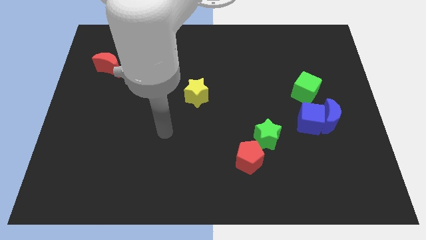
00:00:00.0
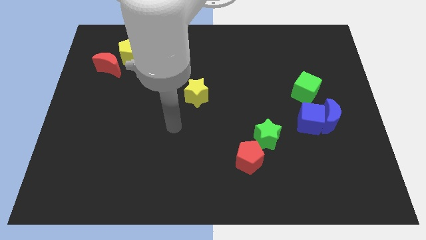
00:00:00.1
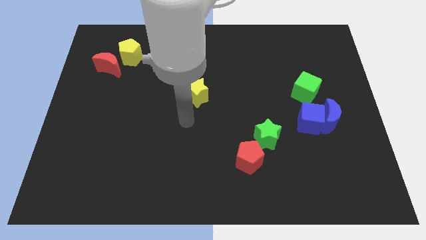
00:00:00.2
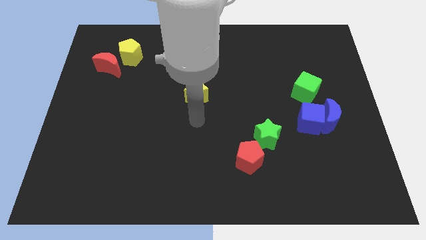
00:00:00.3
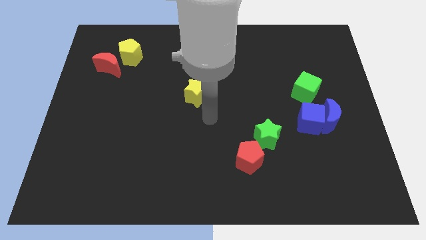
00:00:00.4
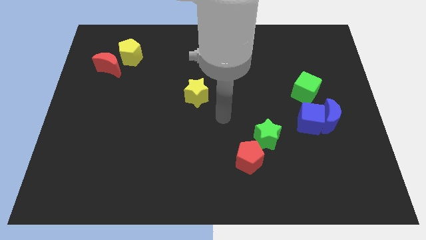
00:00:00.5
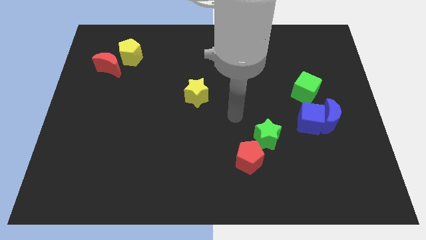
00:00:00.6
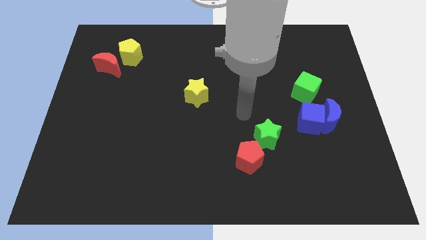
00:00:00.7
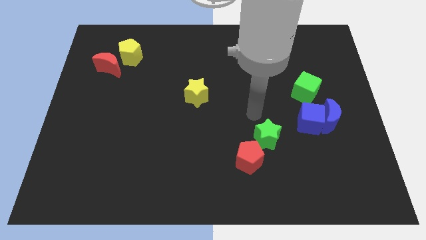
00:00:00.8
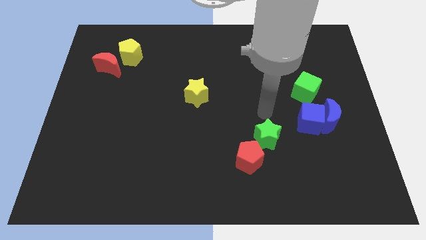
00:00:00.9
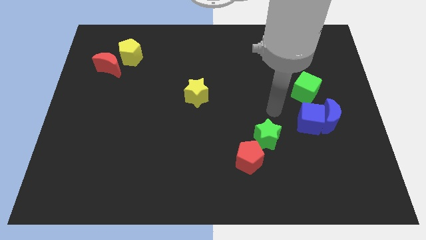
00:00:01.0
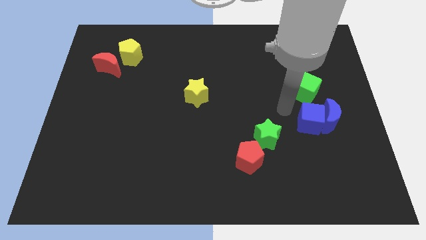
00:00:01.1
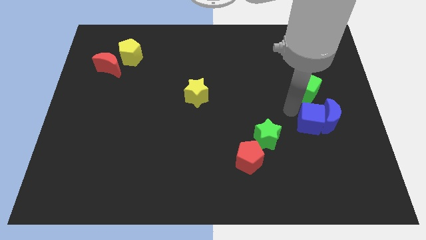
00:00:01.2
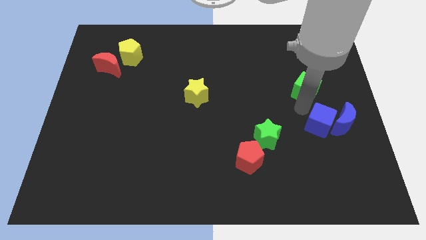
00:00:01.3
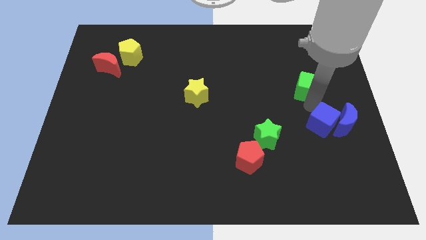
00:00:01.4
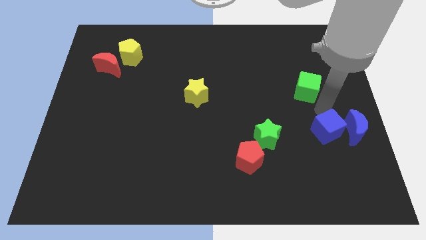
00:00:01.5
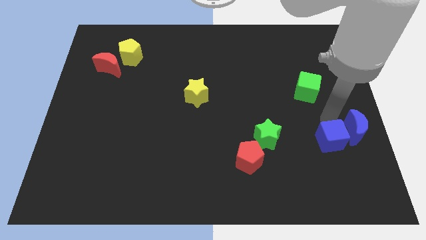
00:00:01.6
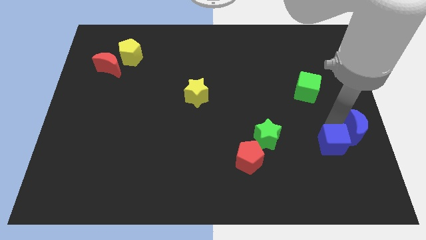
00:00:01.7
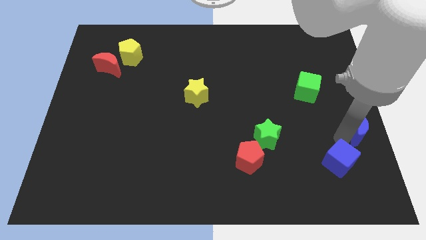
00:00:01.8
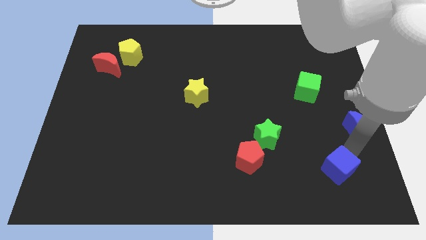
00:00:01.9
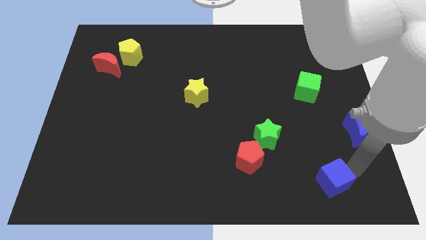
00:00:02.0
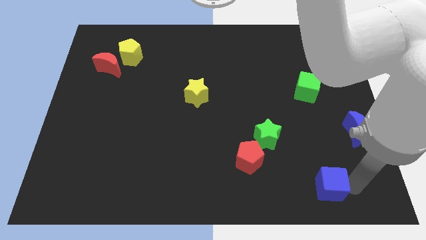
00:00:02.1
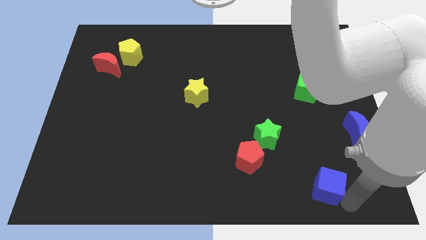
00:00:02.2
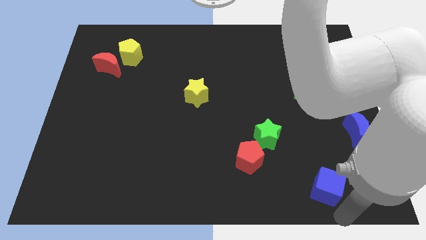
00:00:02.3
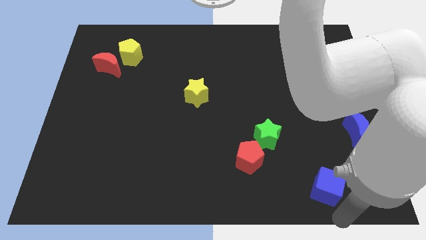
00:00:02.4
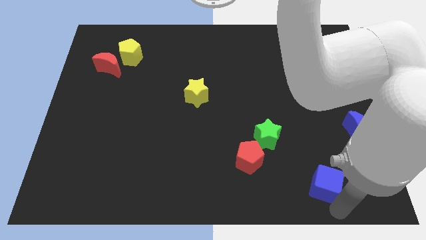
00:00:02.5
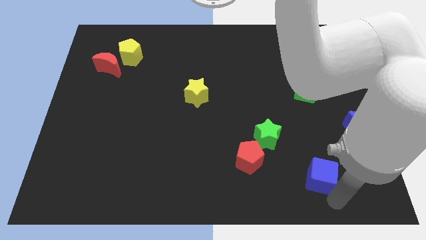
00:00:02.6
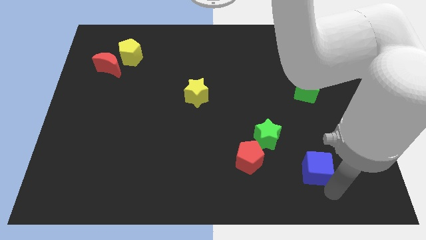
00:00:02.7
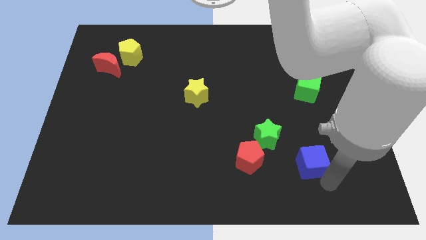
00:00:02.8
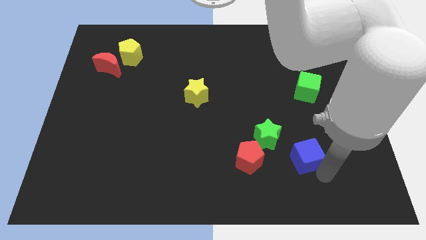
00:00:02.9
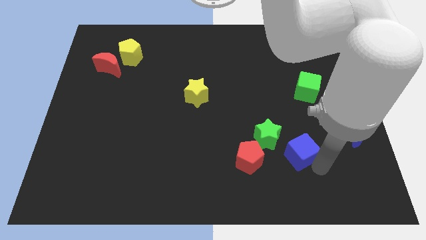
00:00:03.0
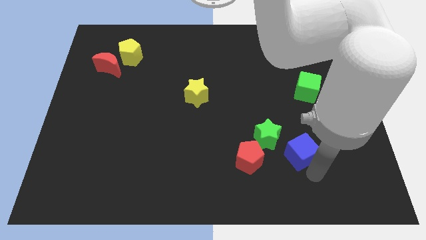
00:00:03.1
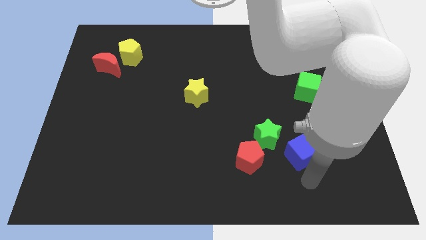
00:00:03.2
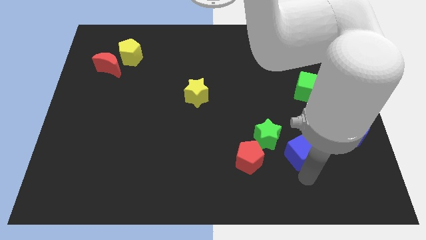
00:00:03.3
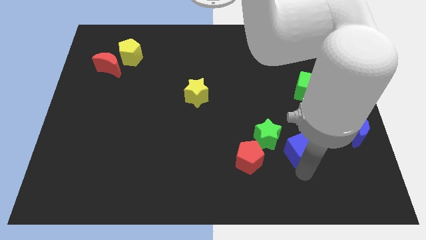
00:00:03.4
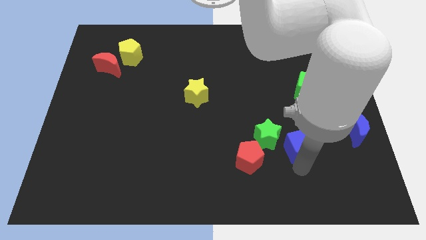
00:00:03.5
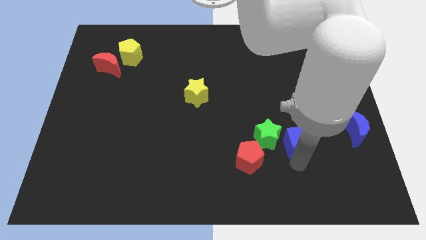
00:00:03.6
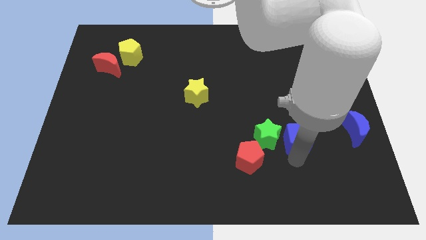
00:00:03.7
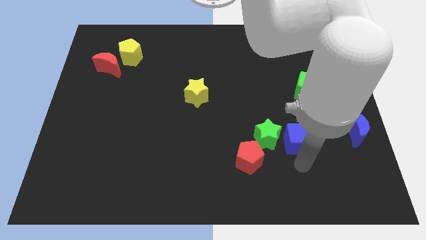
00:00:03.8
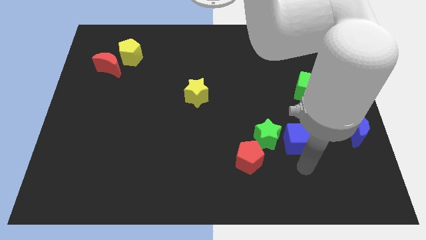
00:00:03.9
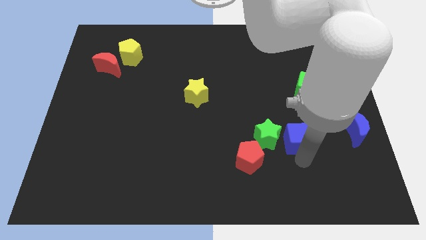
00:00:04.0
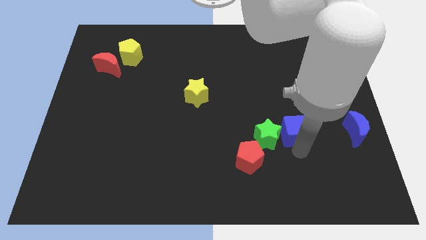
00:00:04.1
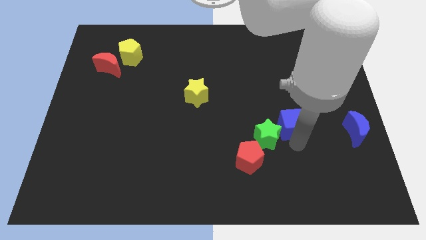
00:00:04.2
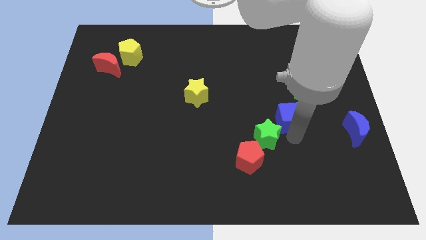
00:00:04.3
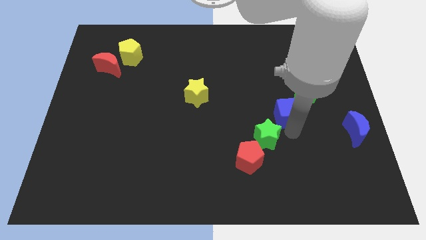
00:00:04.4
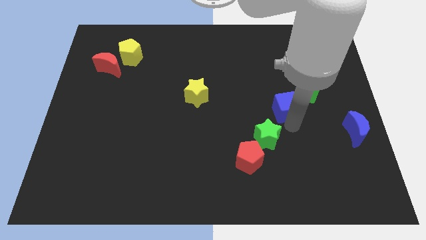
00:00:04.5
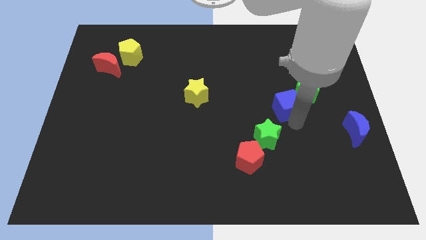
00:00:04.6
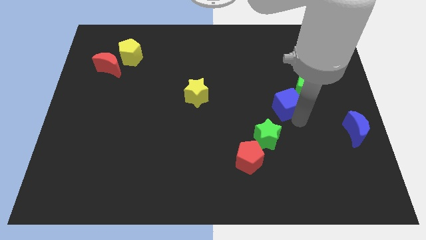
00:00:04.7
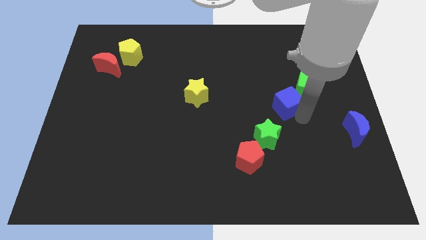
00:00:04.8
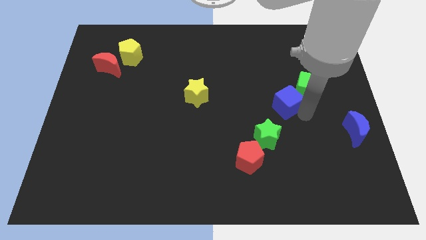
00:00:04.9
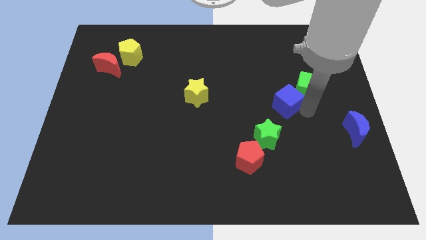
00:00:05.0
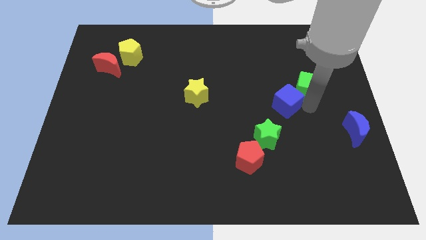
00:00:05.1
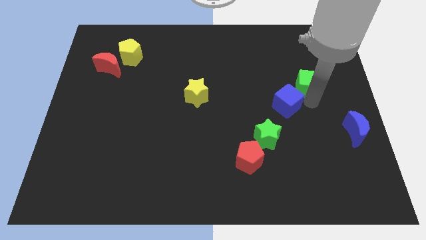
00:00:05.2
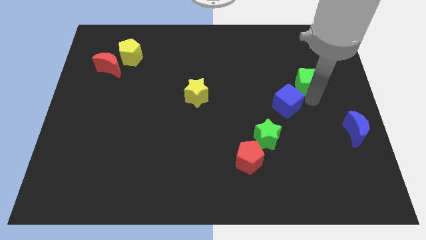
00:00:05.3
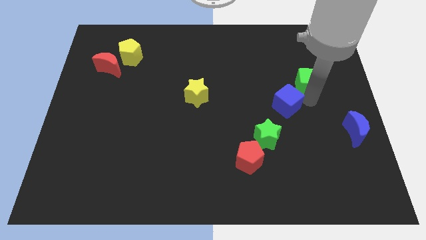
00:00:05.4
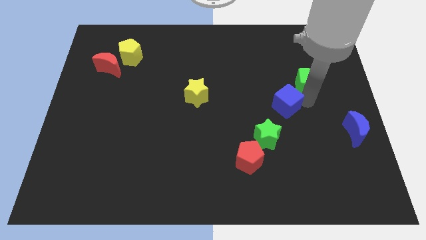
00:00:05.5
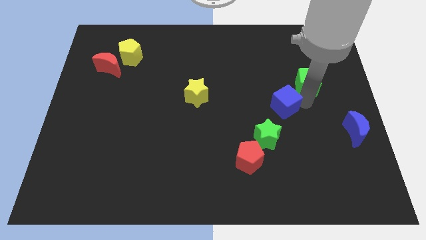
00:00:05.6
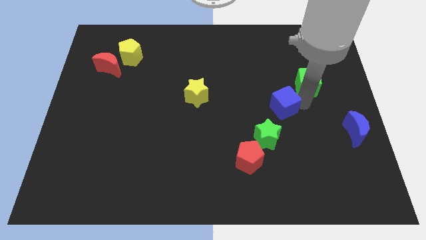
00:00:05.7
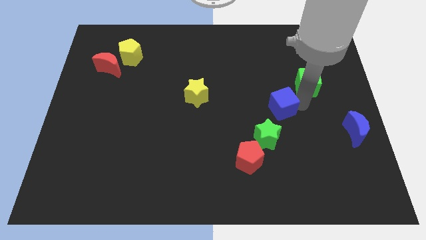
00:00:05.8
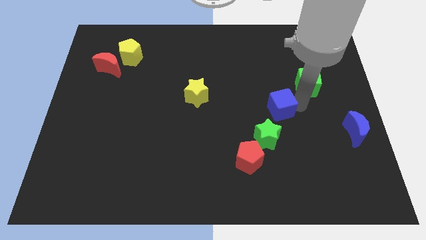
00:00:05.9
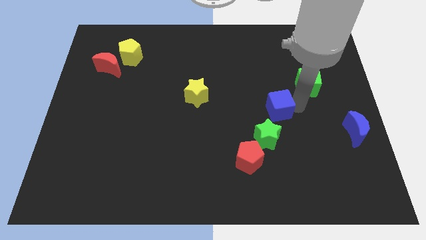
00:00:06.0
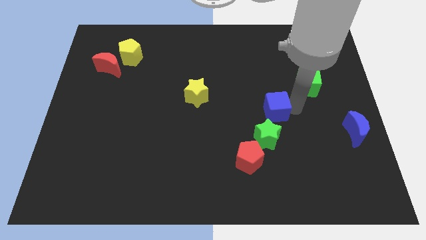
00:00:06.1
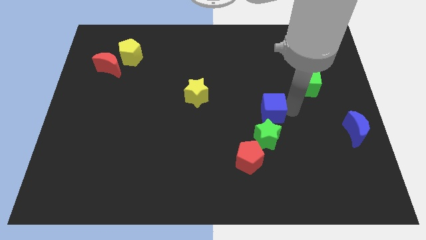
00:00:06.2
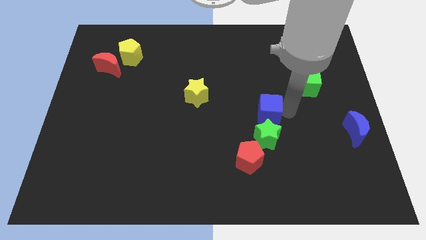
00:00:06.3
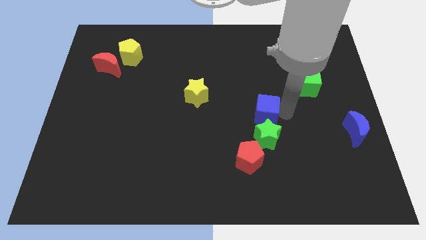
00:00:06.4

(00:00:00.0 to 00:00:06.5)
push the blue cube to the middle
